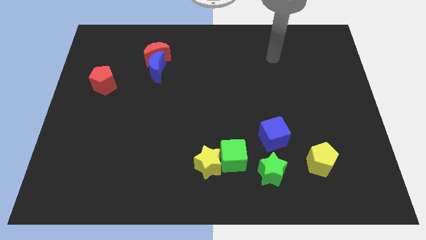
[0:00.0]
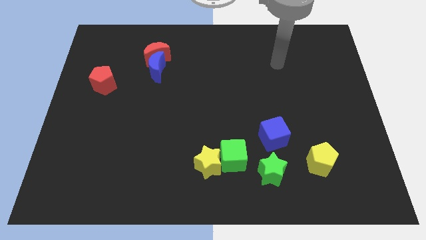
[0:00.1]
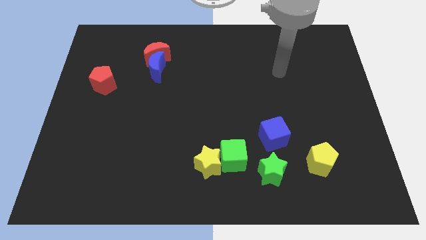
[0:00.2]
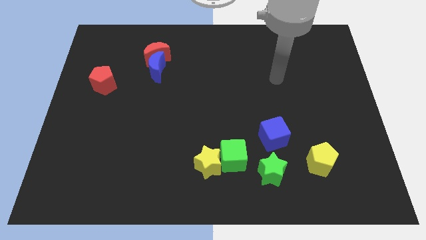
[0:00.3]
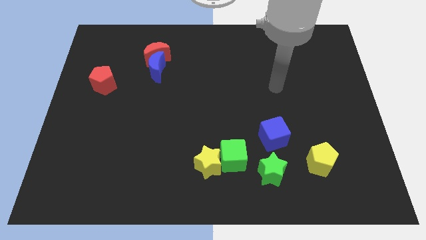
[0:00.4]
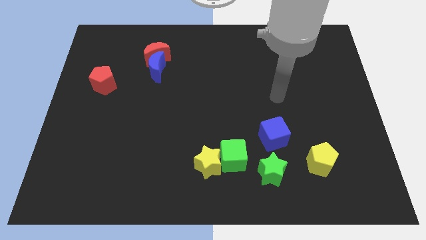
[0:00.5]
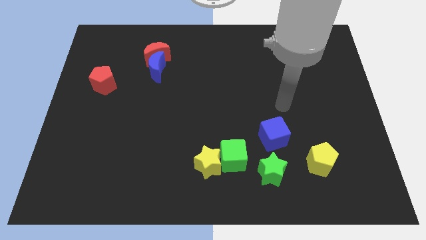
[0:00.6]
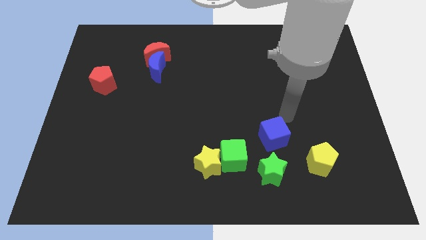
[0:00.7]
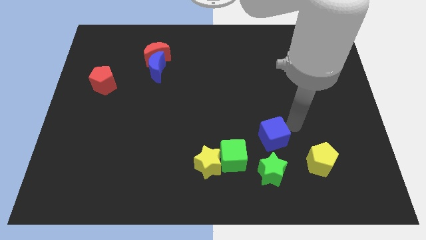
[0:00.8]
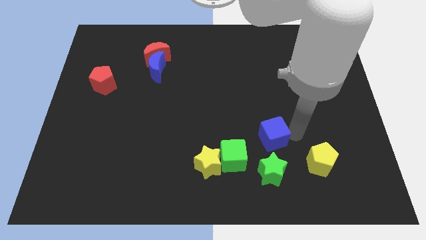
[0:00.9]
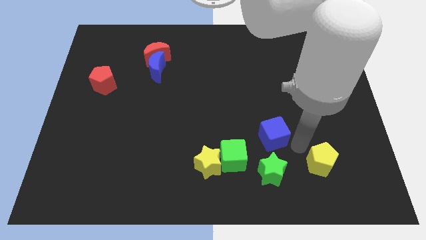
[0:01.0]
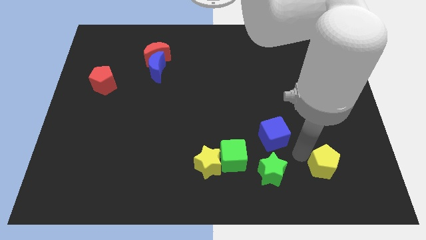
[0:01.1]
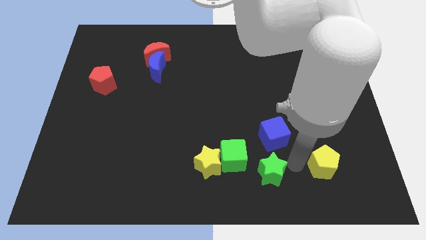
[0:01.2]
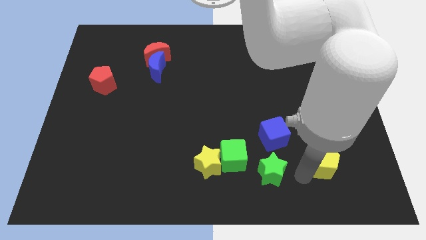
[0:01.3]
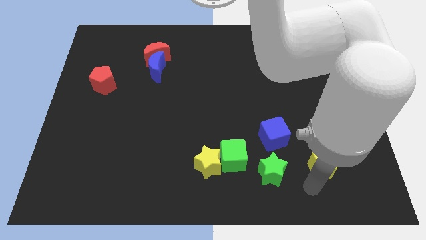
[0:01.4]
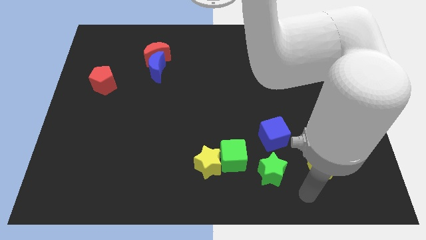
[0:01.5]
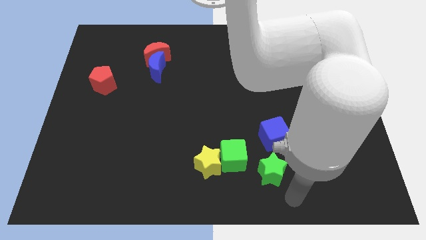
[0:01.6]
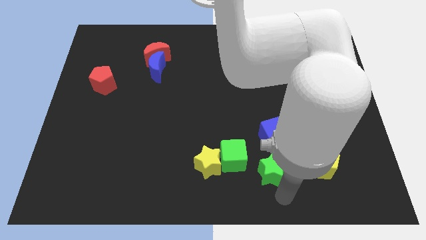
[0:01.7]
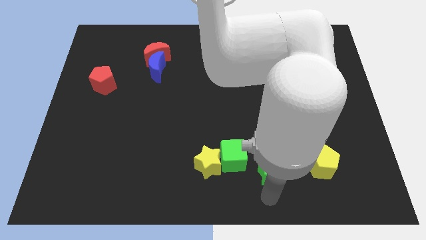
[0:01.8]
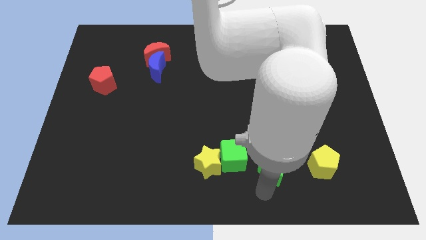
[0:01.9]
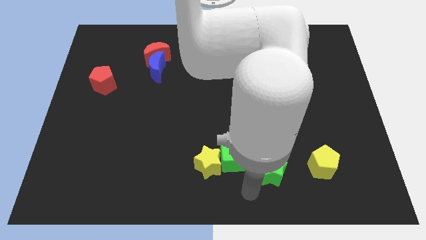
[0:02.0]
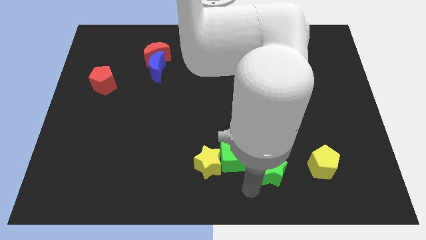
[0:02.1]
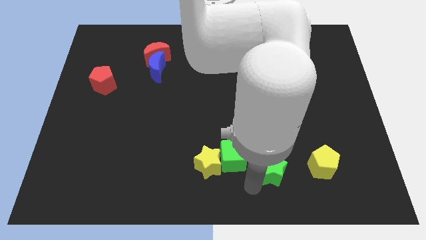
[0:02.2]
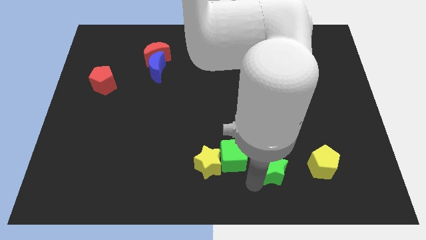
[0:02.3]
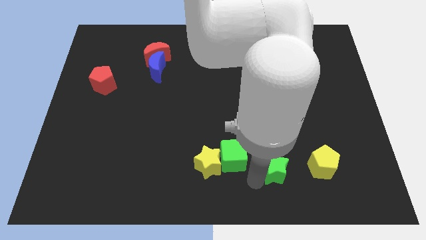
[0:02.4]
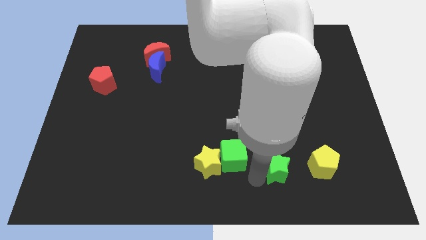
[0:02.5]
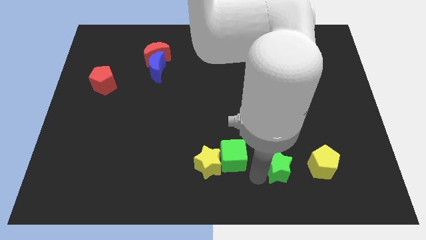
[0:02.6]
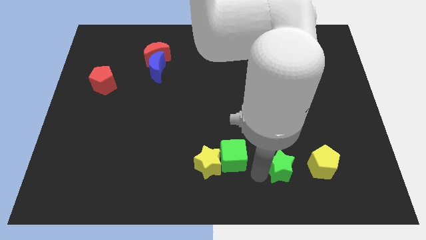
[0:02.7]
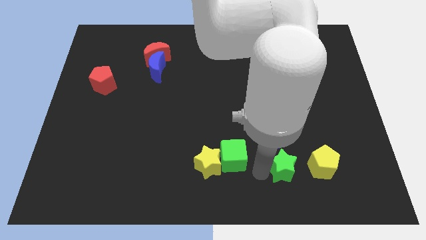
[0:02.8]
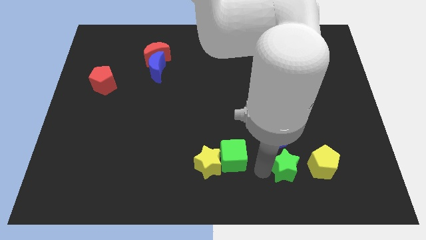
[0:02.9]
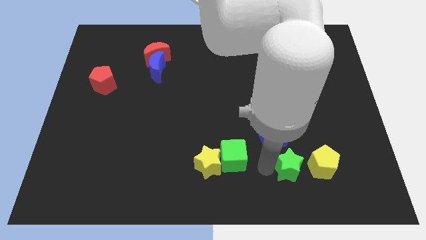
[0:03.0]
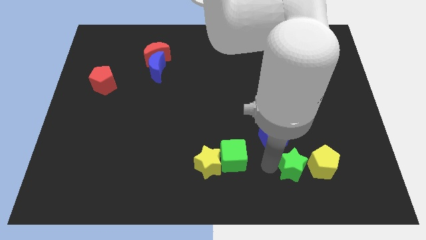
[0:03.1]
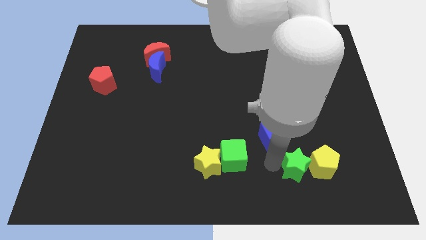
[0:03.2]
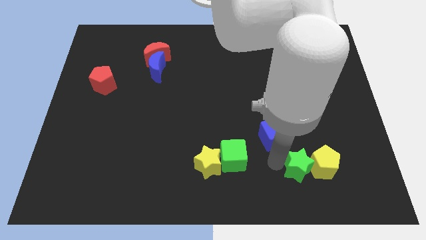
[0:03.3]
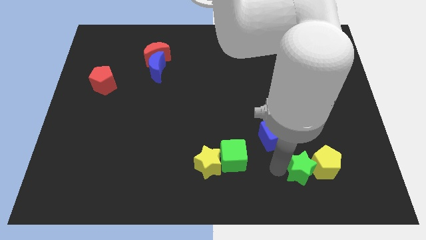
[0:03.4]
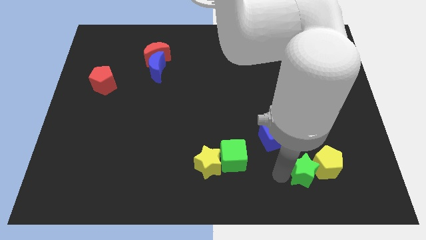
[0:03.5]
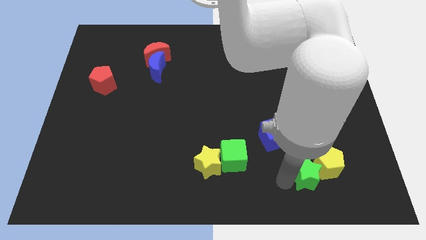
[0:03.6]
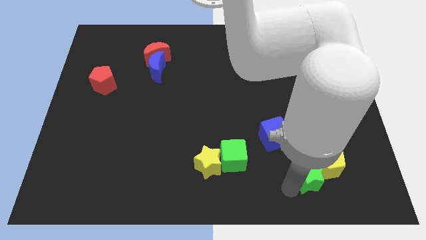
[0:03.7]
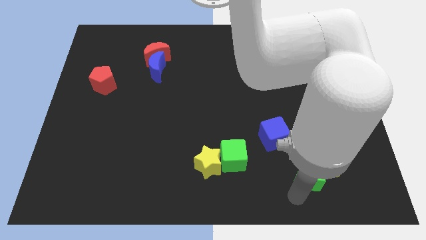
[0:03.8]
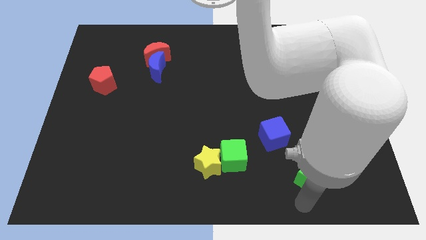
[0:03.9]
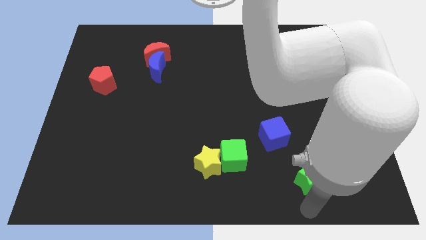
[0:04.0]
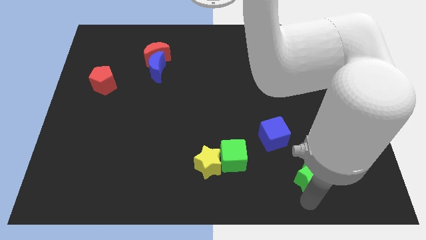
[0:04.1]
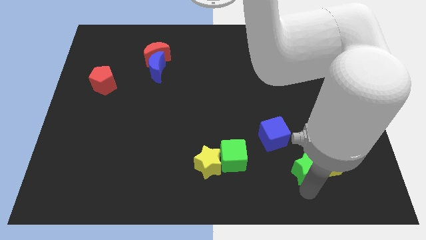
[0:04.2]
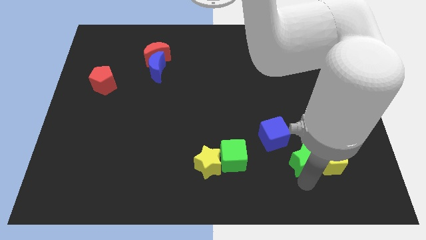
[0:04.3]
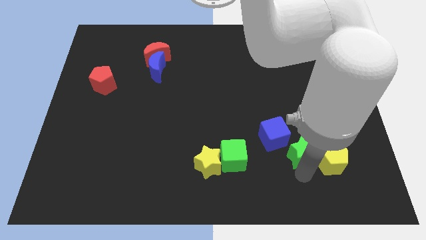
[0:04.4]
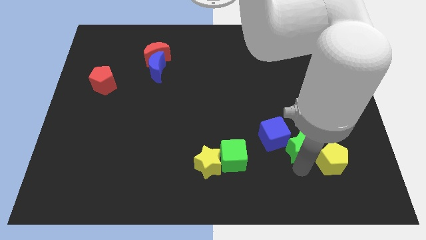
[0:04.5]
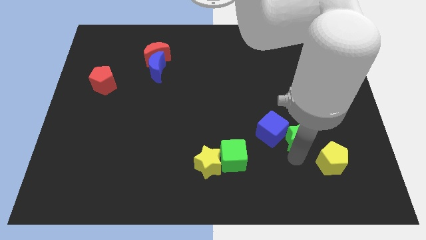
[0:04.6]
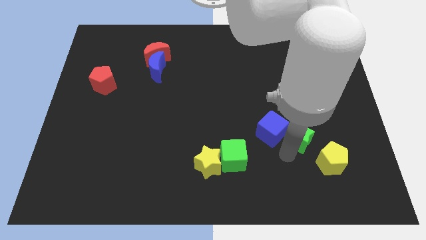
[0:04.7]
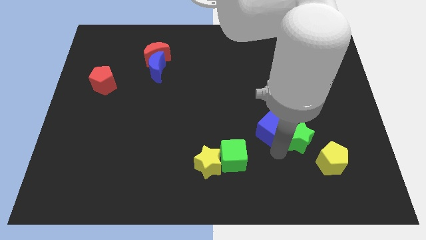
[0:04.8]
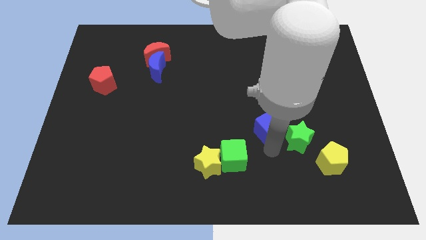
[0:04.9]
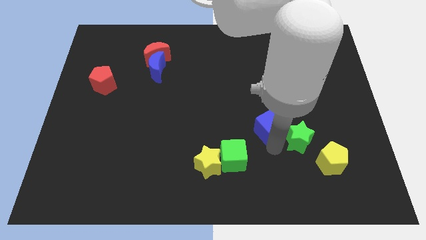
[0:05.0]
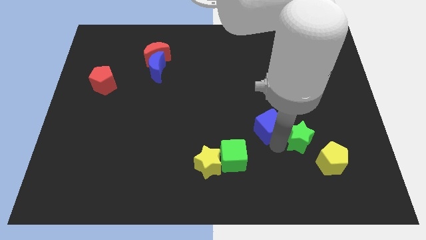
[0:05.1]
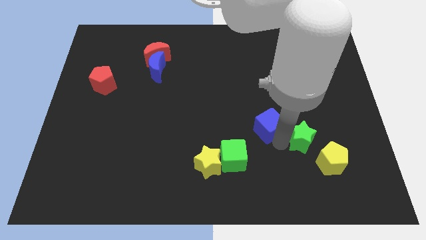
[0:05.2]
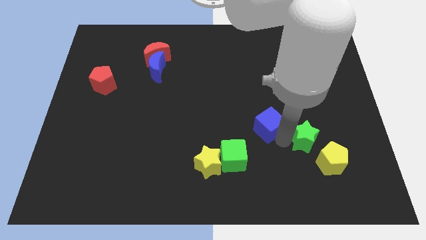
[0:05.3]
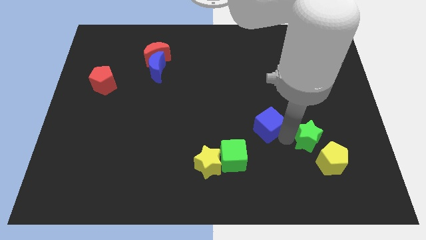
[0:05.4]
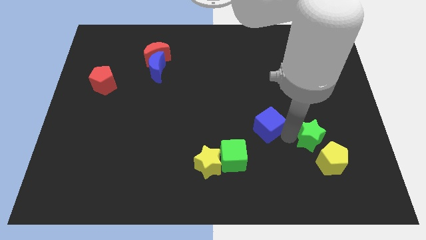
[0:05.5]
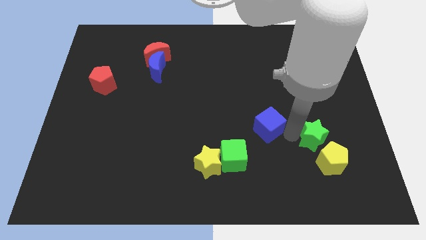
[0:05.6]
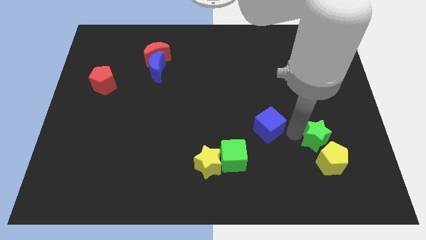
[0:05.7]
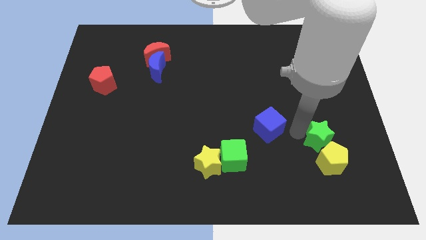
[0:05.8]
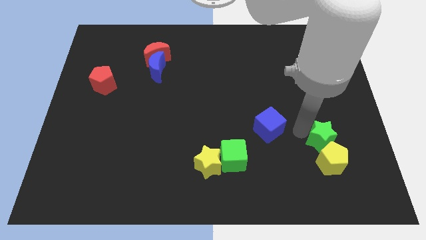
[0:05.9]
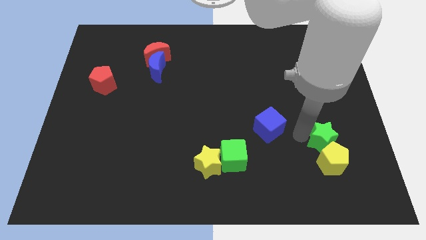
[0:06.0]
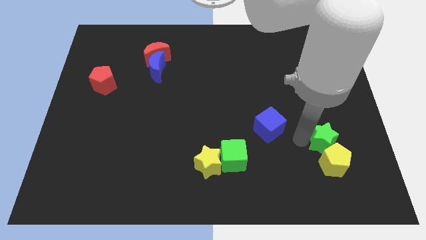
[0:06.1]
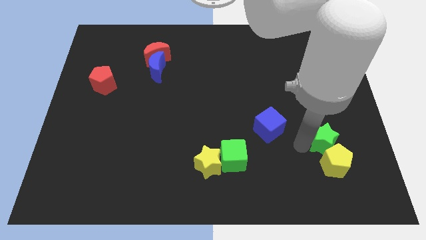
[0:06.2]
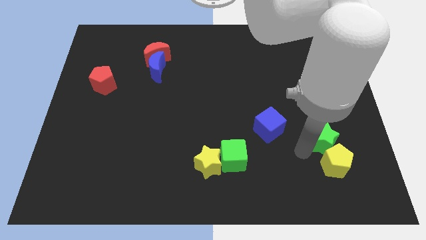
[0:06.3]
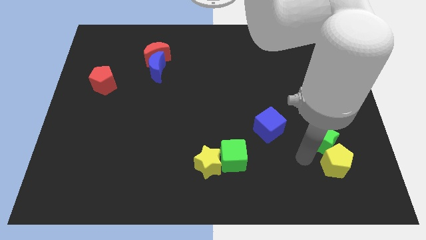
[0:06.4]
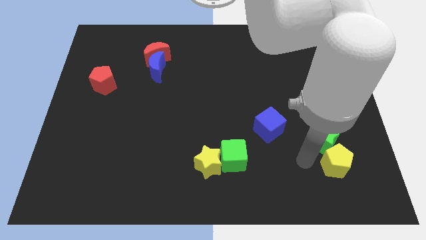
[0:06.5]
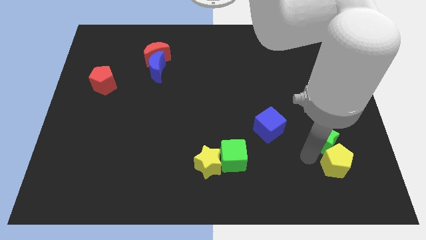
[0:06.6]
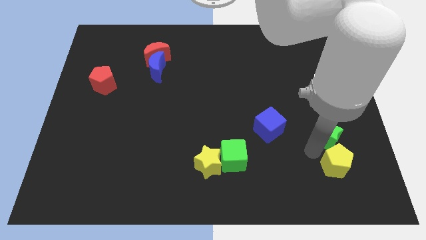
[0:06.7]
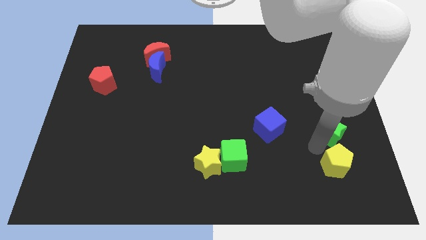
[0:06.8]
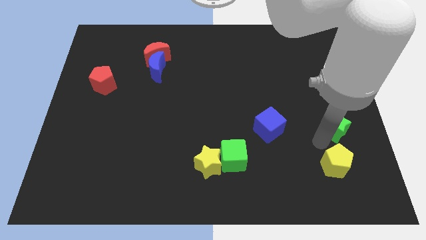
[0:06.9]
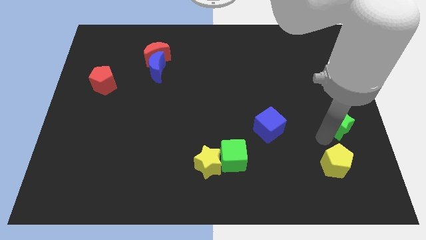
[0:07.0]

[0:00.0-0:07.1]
put the green star to the right side

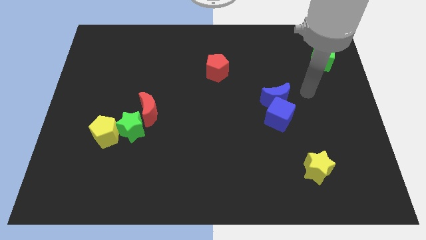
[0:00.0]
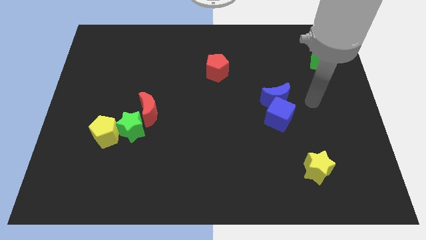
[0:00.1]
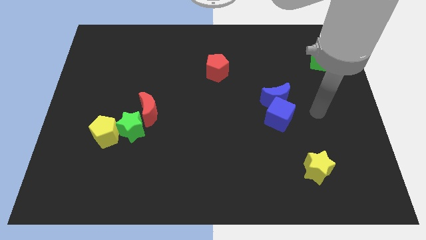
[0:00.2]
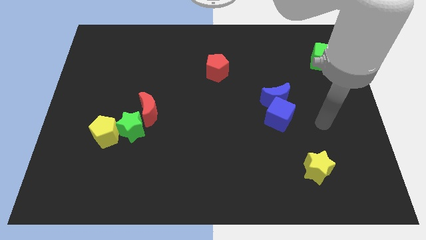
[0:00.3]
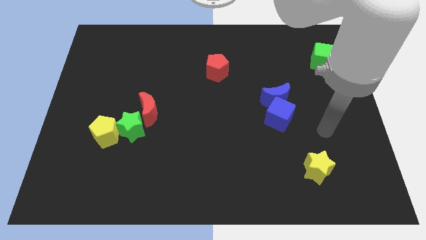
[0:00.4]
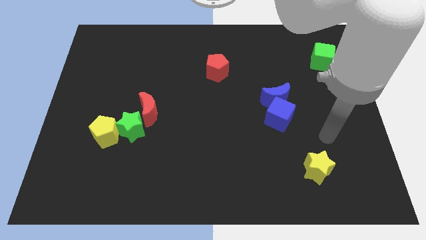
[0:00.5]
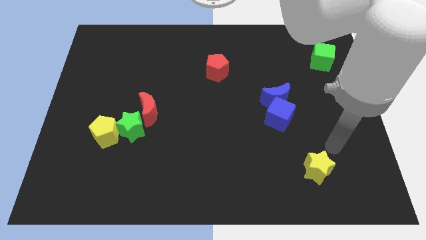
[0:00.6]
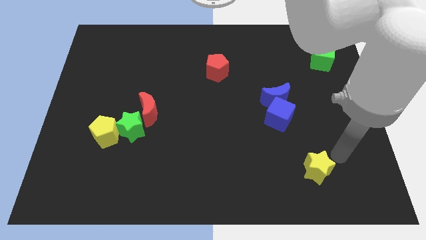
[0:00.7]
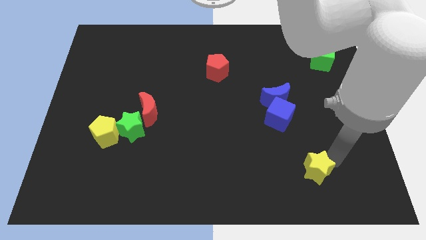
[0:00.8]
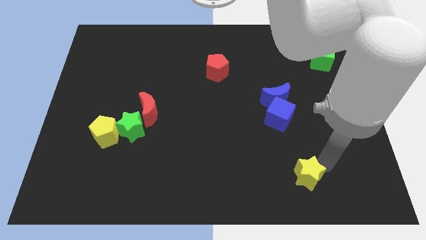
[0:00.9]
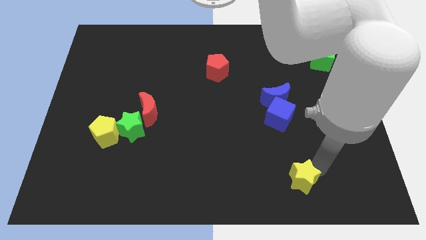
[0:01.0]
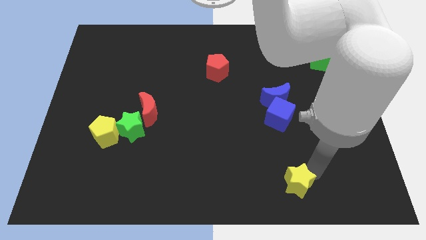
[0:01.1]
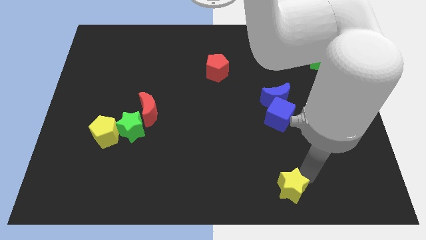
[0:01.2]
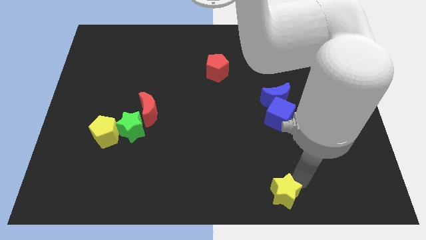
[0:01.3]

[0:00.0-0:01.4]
move the yellow star to the bottom side
